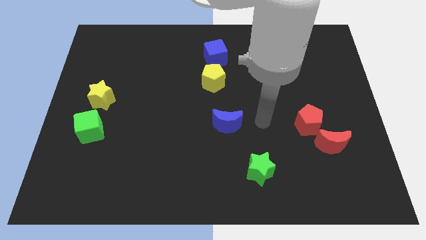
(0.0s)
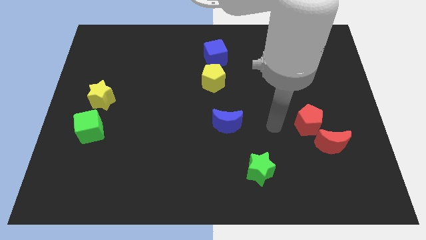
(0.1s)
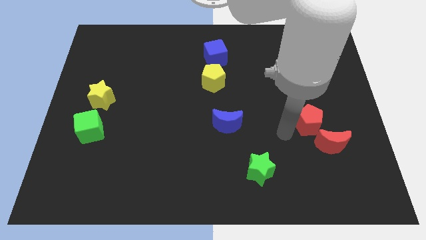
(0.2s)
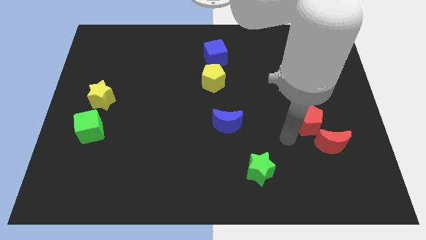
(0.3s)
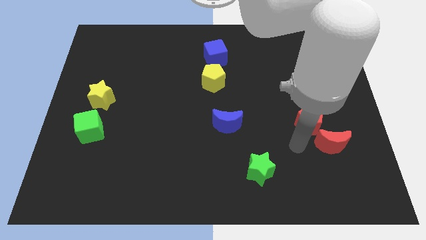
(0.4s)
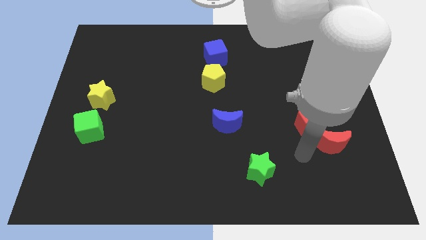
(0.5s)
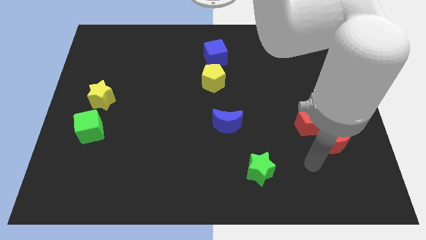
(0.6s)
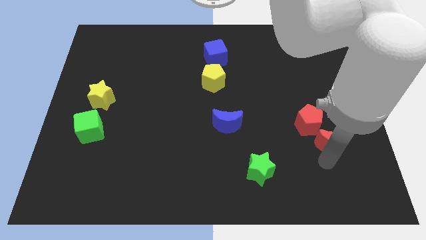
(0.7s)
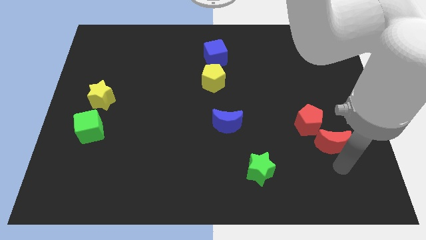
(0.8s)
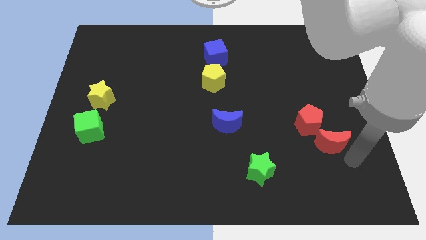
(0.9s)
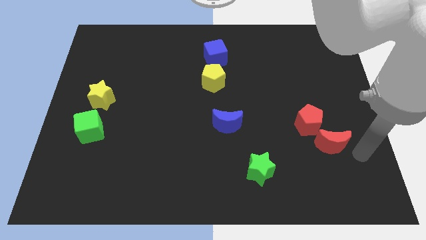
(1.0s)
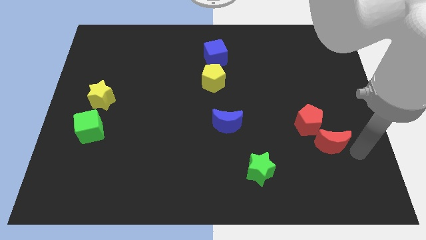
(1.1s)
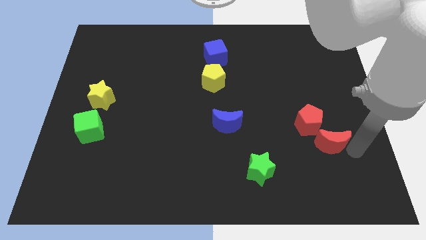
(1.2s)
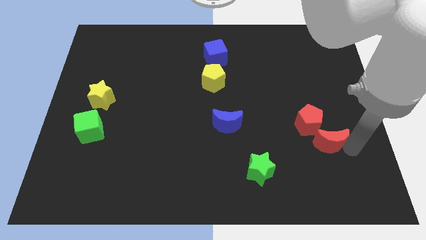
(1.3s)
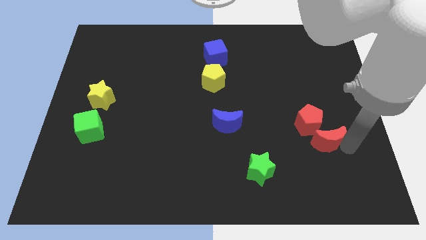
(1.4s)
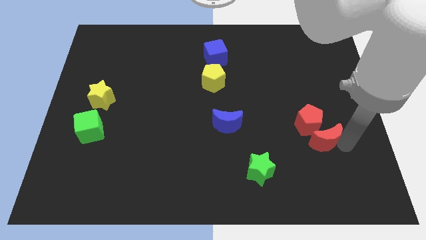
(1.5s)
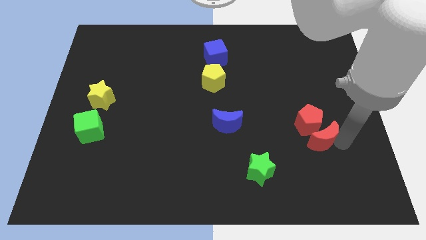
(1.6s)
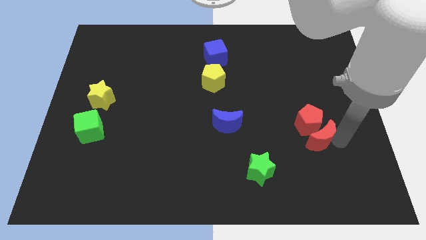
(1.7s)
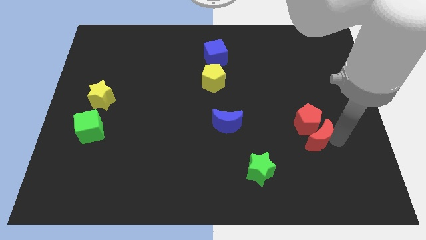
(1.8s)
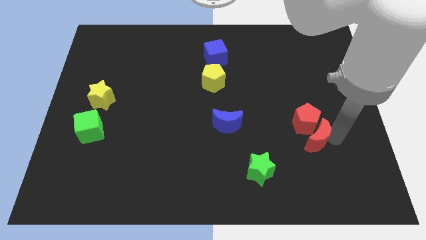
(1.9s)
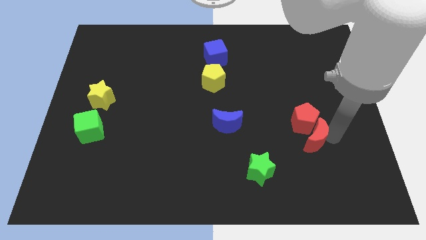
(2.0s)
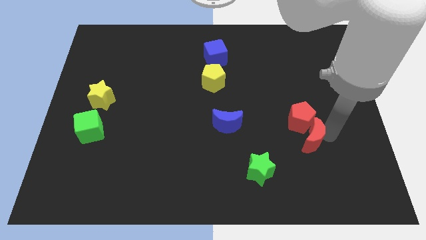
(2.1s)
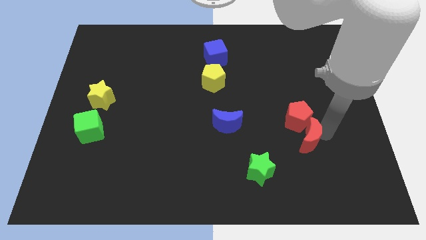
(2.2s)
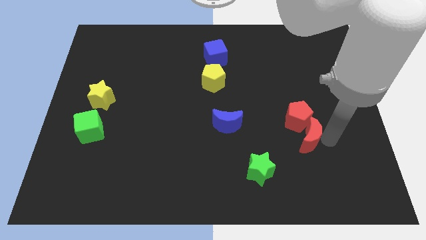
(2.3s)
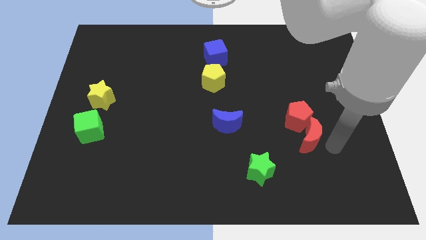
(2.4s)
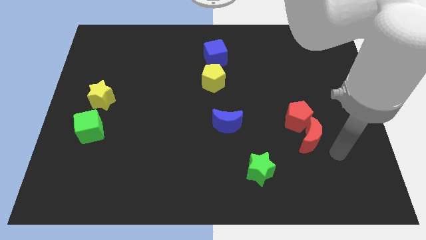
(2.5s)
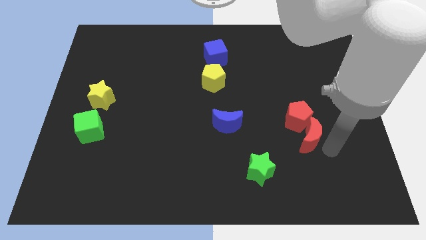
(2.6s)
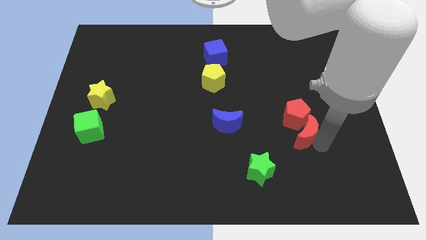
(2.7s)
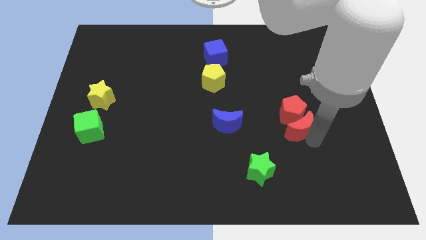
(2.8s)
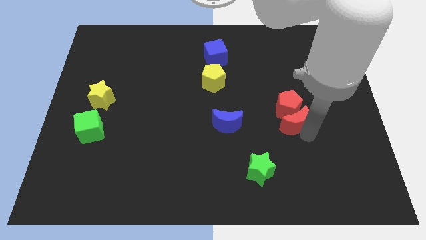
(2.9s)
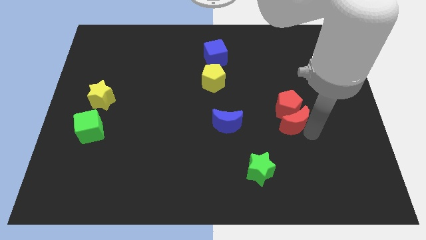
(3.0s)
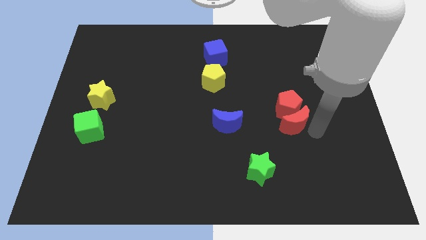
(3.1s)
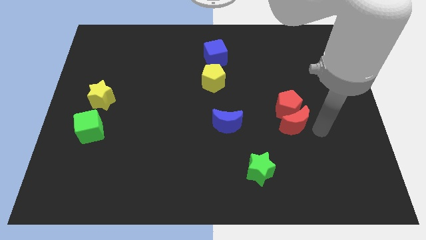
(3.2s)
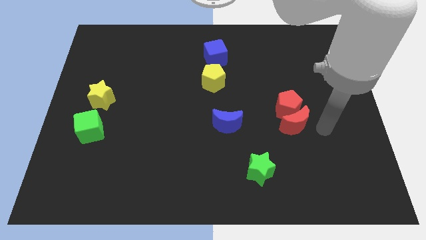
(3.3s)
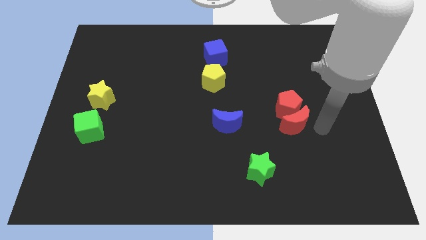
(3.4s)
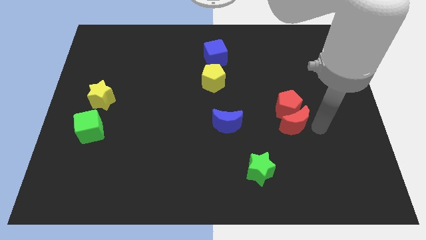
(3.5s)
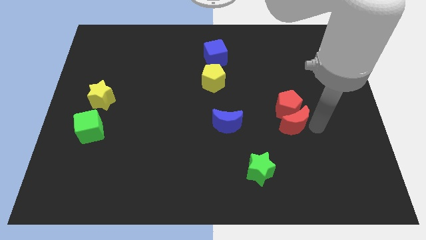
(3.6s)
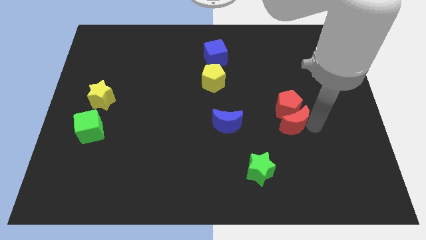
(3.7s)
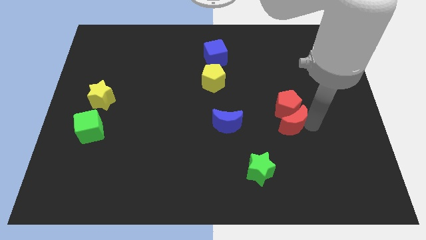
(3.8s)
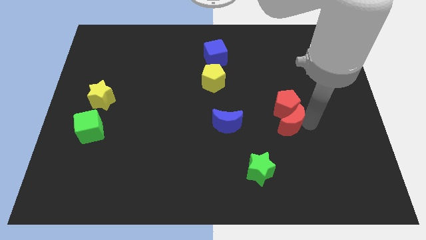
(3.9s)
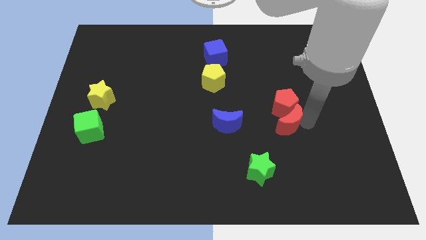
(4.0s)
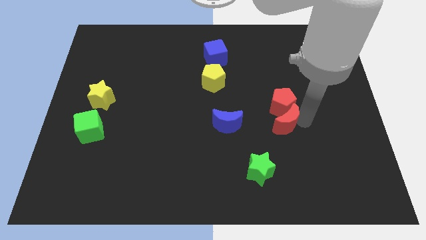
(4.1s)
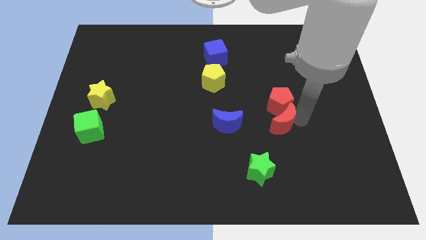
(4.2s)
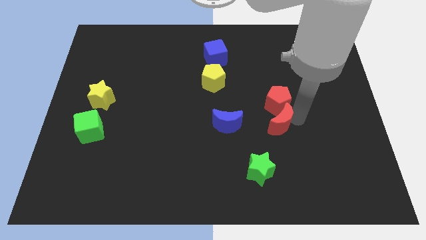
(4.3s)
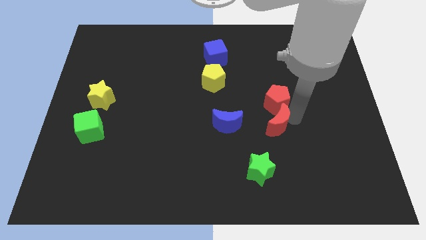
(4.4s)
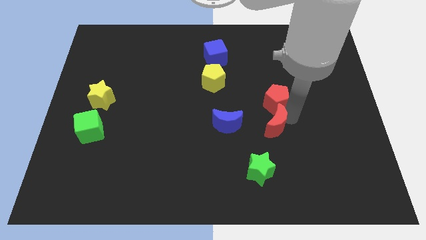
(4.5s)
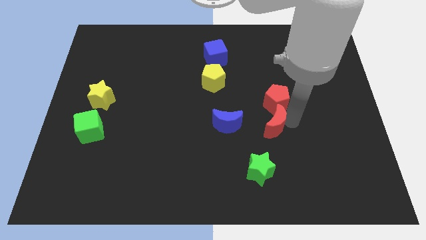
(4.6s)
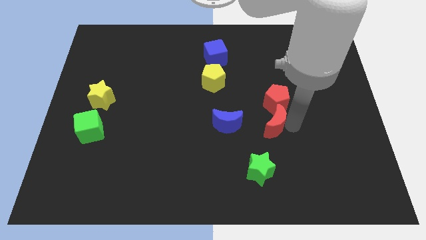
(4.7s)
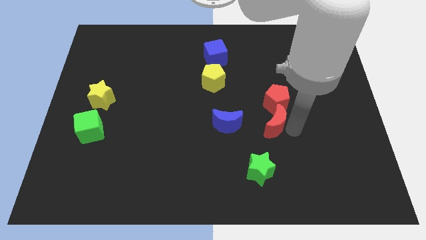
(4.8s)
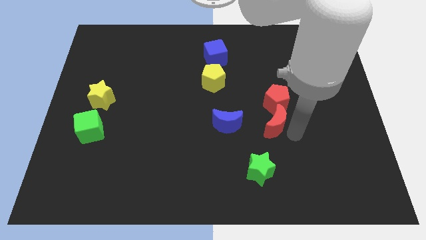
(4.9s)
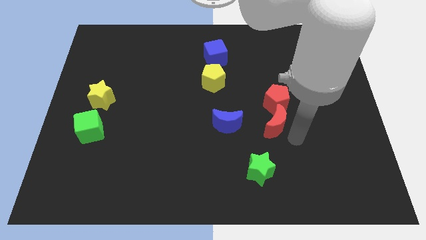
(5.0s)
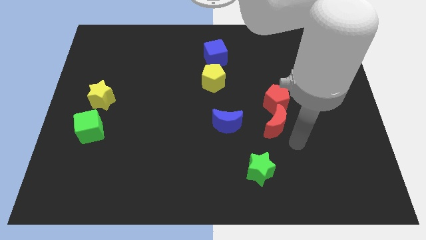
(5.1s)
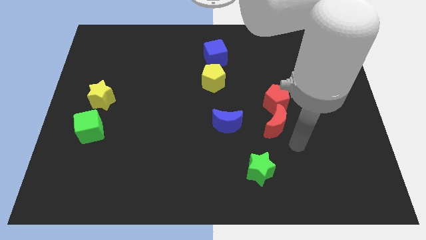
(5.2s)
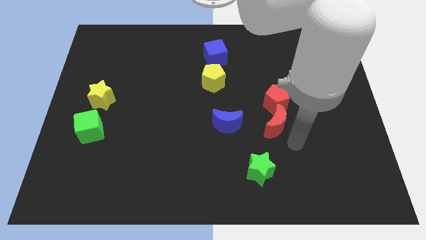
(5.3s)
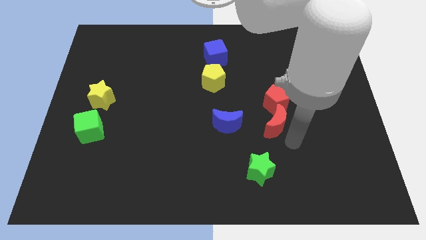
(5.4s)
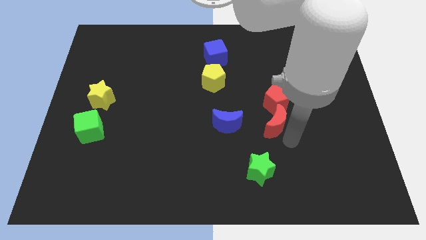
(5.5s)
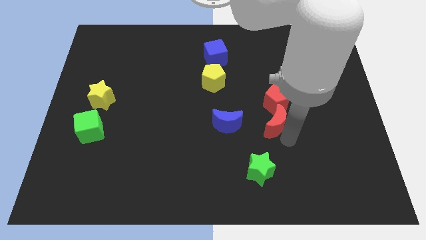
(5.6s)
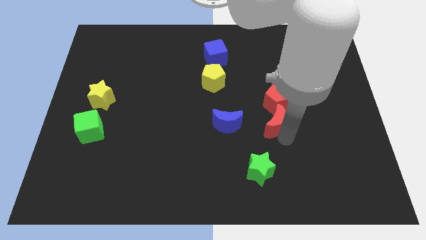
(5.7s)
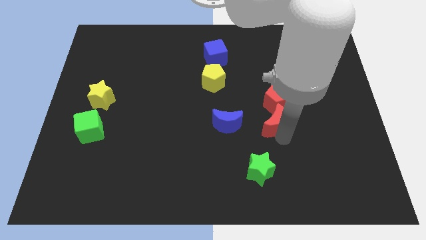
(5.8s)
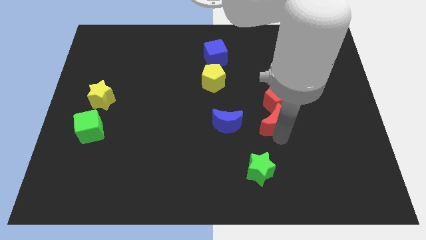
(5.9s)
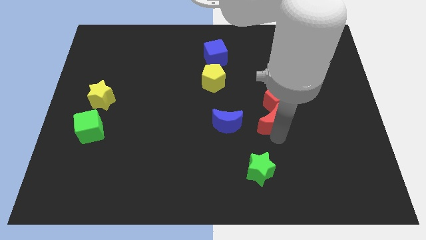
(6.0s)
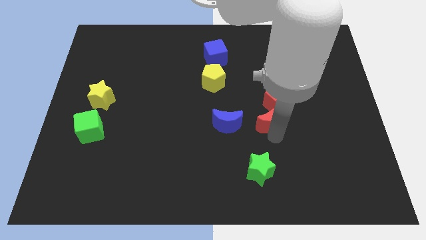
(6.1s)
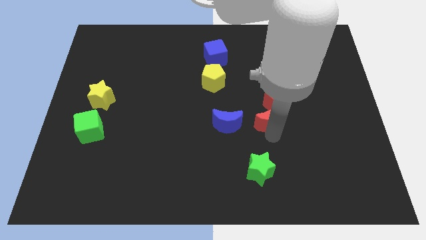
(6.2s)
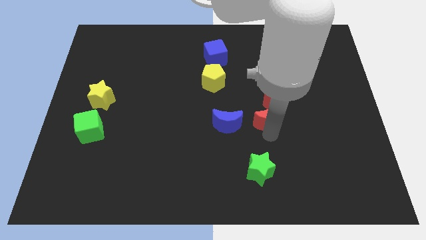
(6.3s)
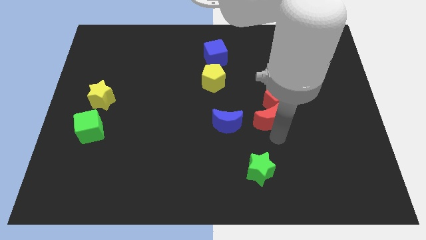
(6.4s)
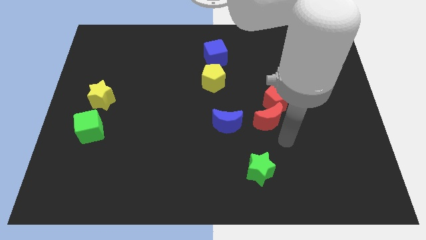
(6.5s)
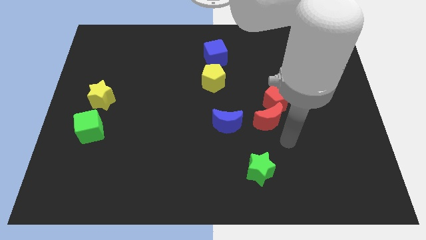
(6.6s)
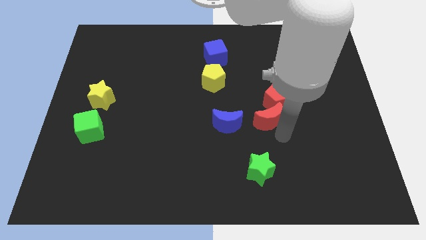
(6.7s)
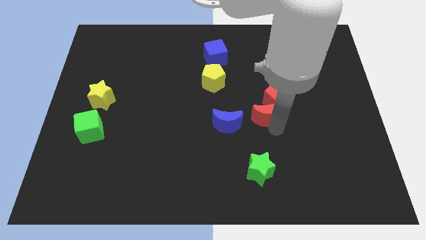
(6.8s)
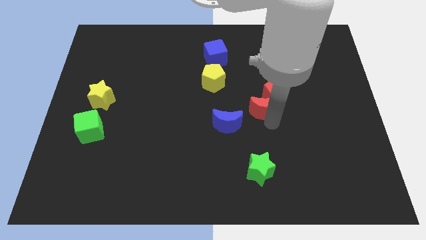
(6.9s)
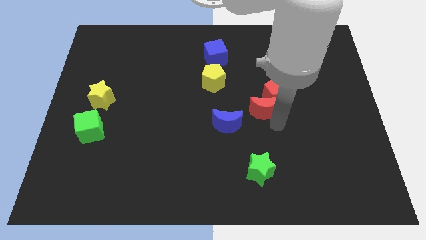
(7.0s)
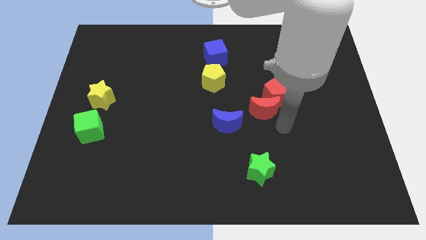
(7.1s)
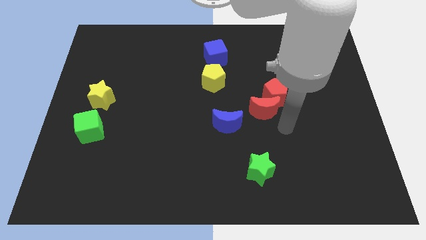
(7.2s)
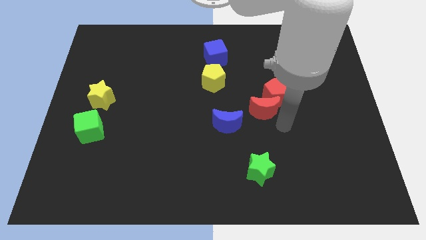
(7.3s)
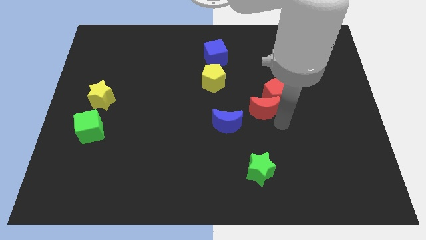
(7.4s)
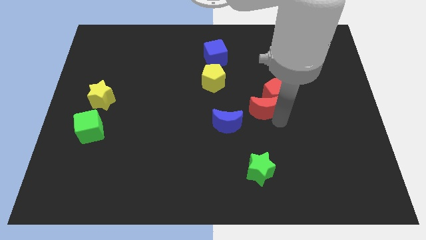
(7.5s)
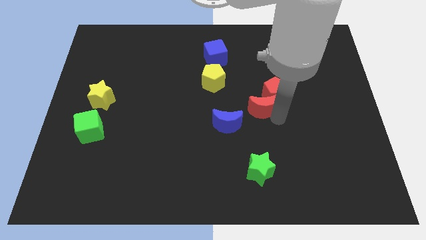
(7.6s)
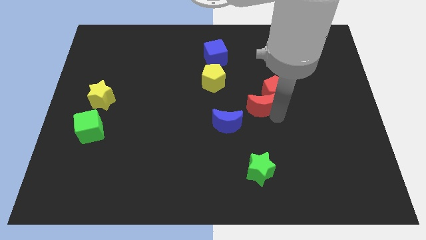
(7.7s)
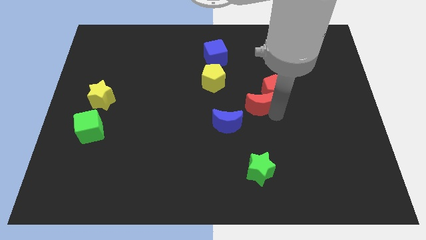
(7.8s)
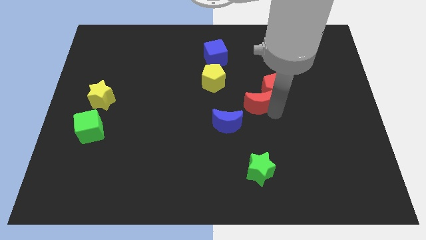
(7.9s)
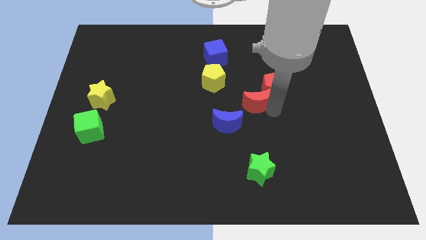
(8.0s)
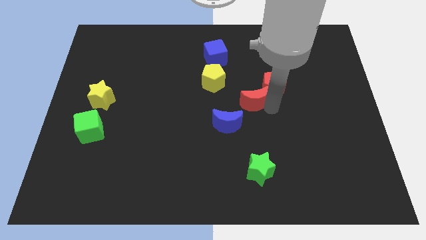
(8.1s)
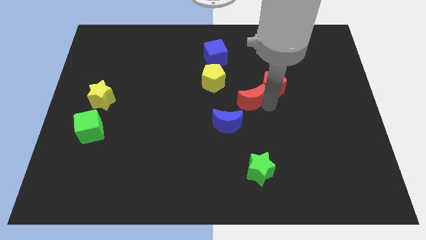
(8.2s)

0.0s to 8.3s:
move the red moon diagonally up and left
